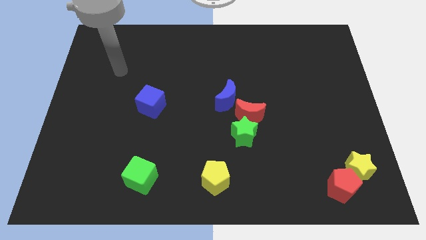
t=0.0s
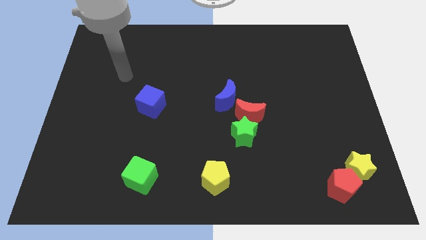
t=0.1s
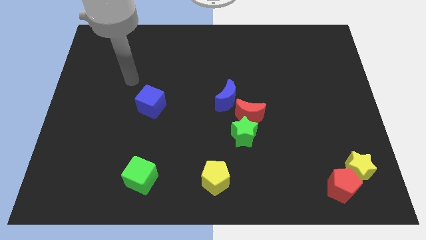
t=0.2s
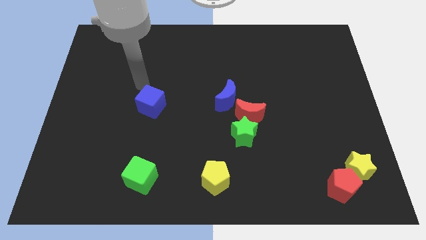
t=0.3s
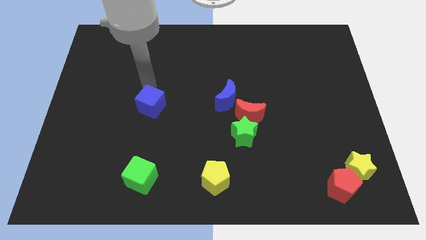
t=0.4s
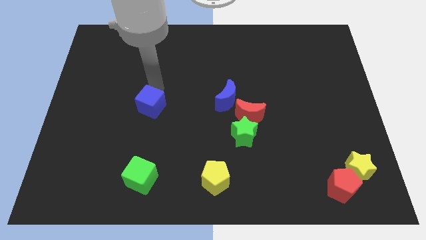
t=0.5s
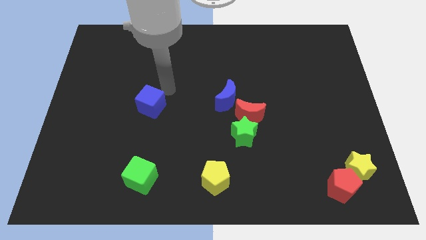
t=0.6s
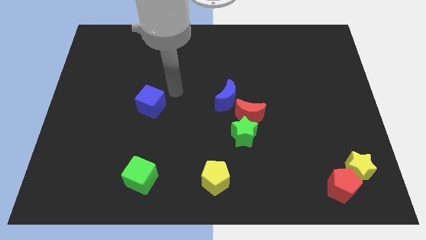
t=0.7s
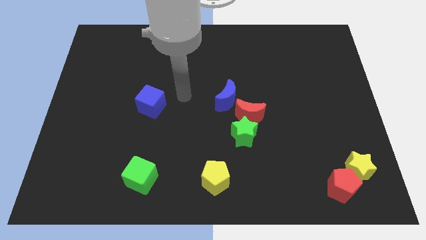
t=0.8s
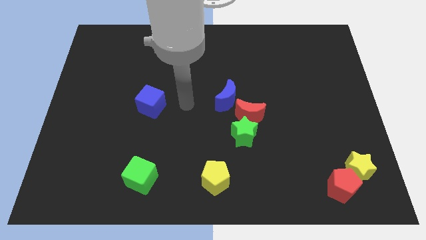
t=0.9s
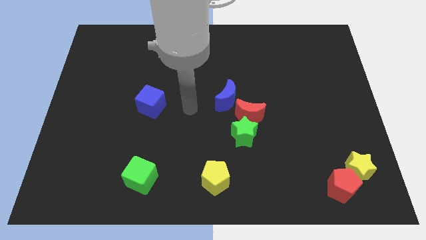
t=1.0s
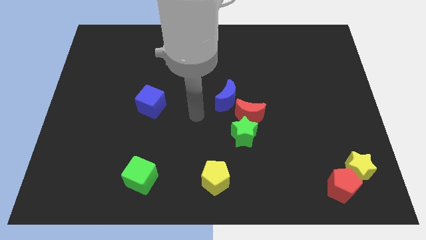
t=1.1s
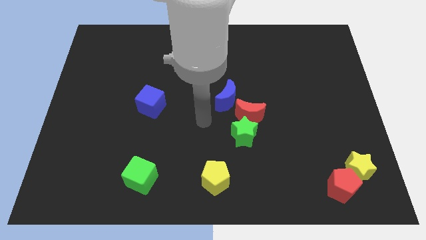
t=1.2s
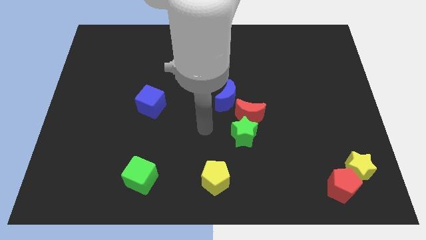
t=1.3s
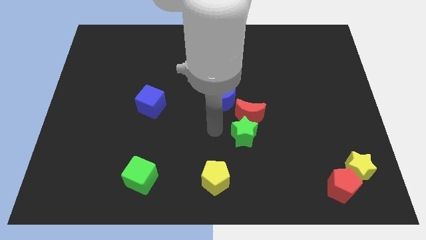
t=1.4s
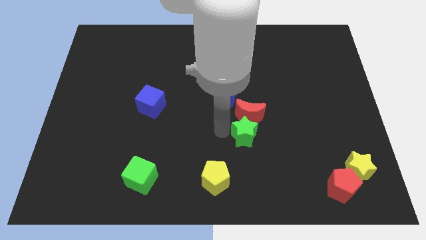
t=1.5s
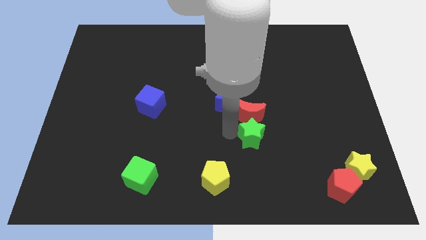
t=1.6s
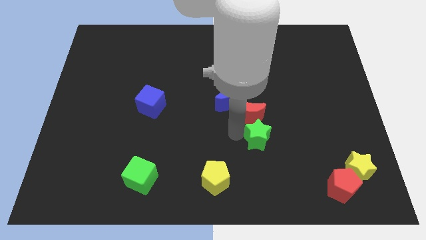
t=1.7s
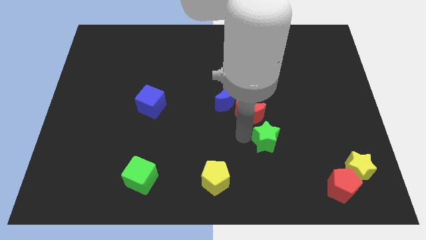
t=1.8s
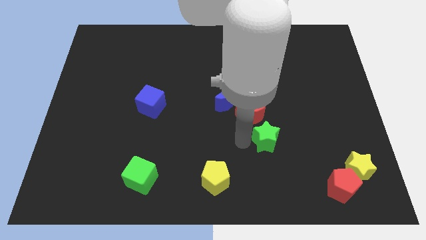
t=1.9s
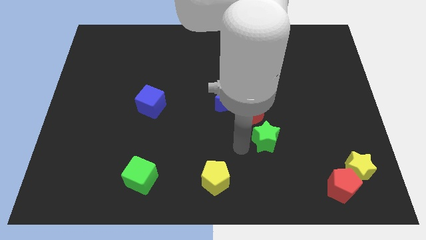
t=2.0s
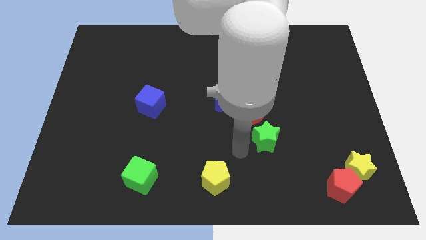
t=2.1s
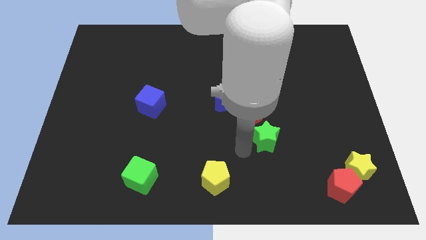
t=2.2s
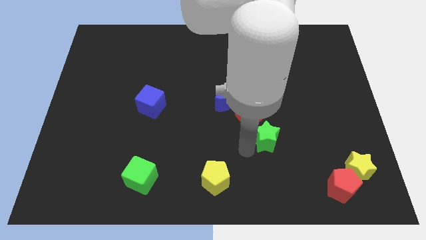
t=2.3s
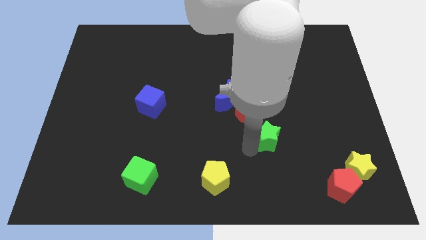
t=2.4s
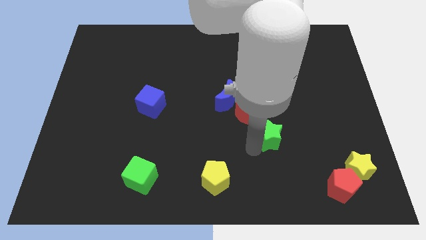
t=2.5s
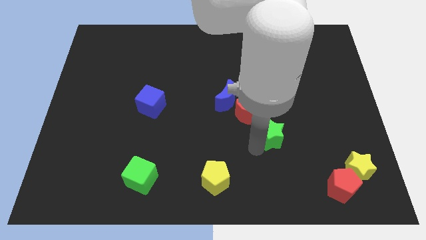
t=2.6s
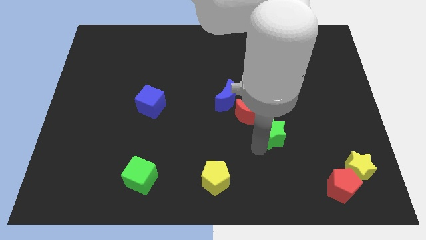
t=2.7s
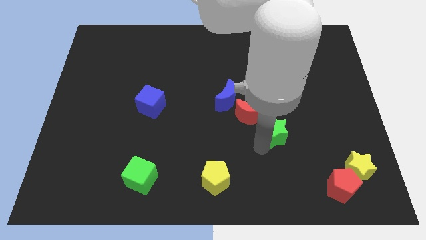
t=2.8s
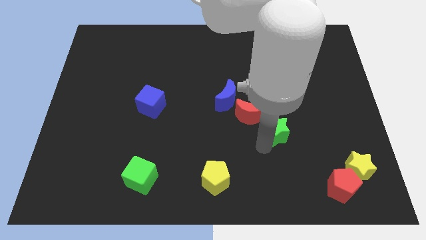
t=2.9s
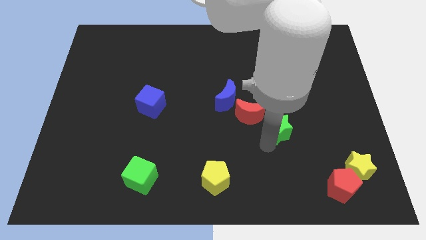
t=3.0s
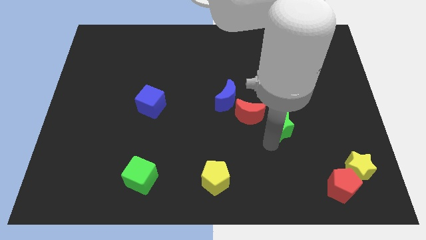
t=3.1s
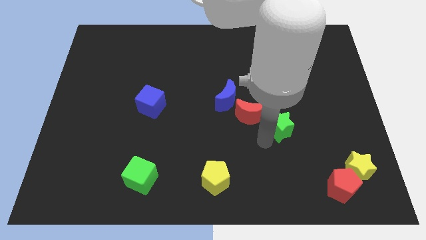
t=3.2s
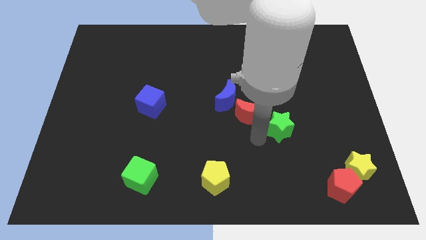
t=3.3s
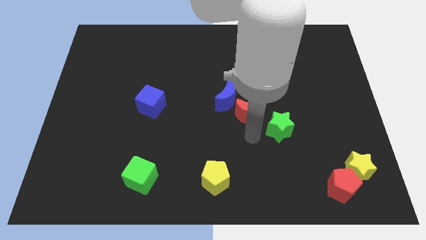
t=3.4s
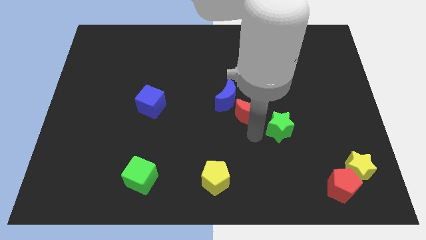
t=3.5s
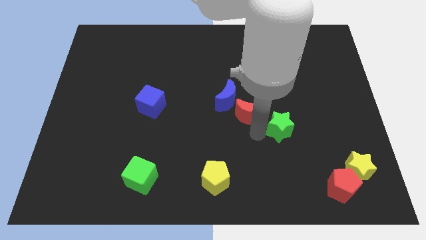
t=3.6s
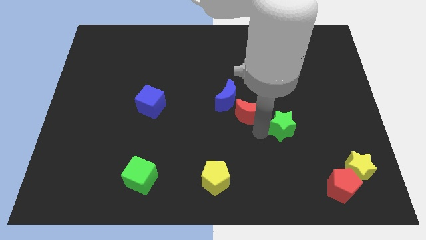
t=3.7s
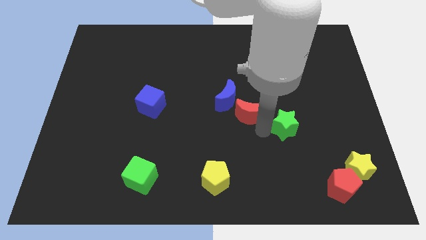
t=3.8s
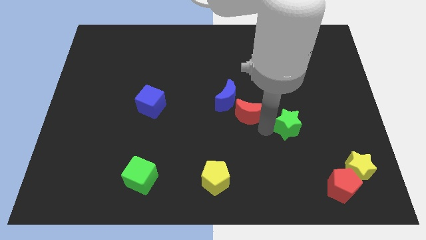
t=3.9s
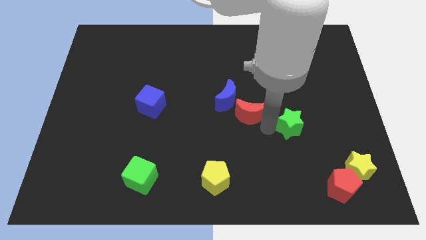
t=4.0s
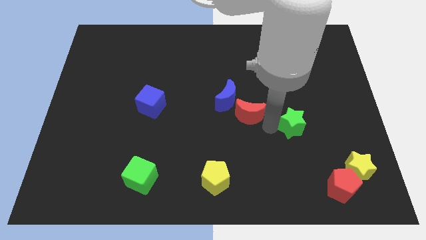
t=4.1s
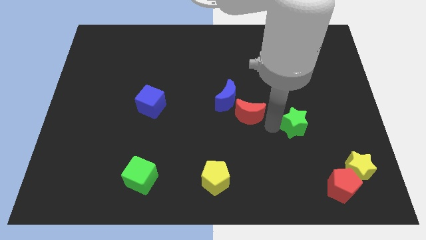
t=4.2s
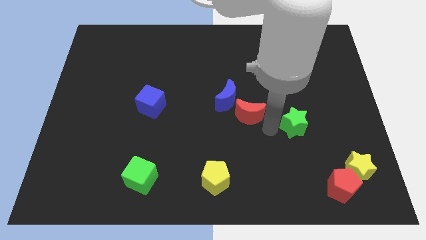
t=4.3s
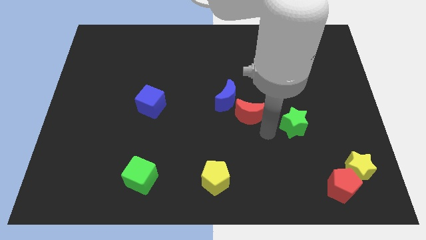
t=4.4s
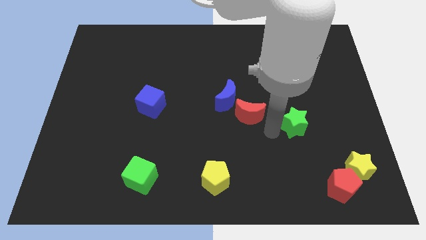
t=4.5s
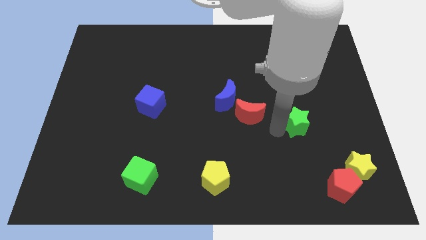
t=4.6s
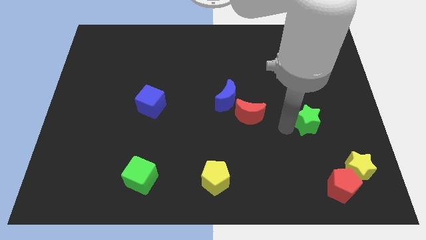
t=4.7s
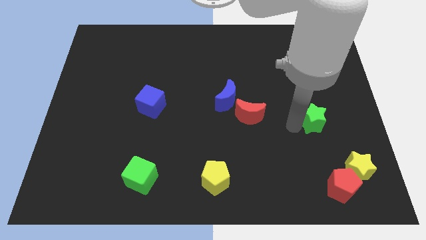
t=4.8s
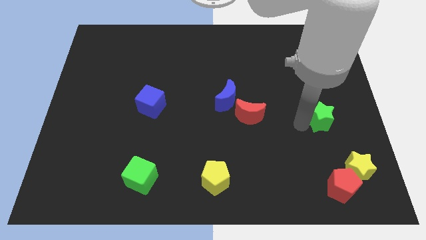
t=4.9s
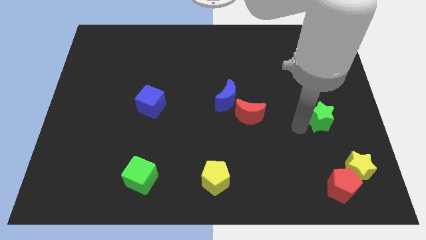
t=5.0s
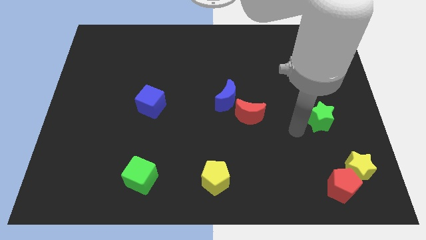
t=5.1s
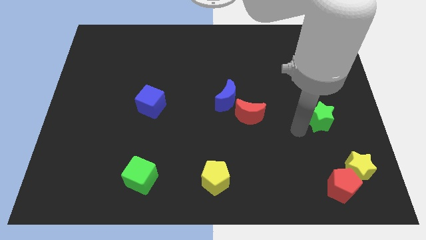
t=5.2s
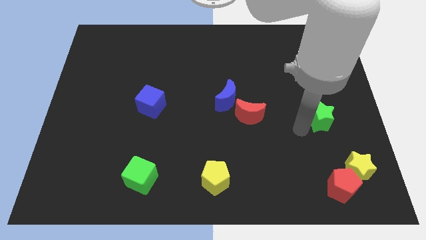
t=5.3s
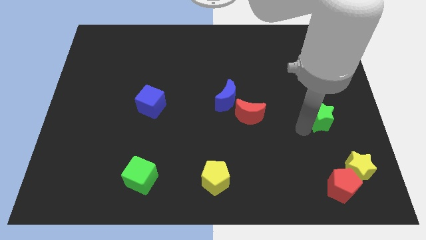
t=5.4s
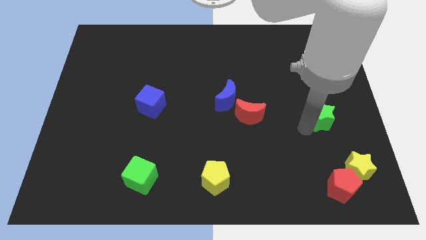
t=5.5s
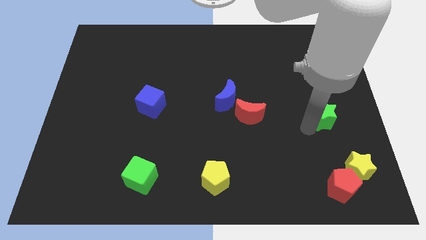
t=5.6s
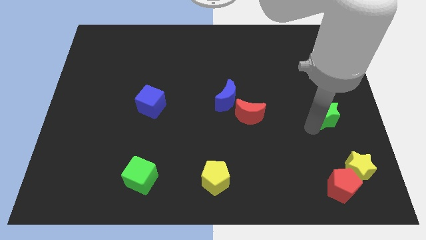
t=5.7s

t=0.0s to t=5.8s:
move the green star to the center right
